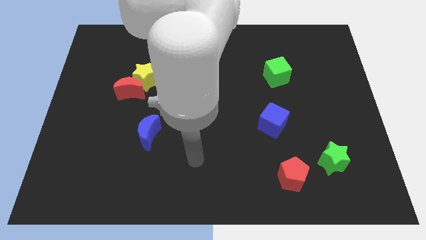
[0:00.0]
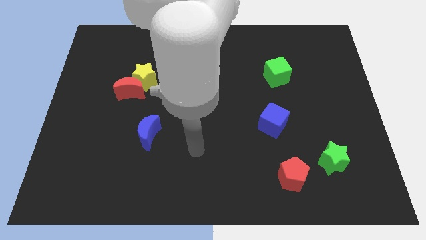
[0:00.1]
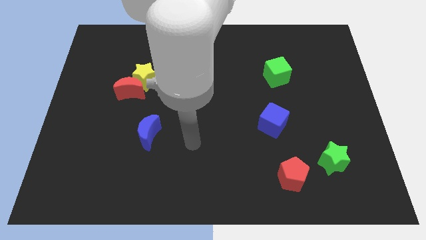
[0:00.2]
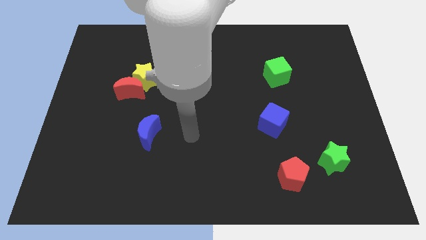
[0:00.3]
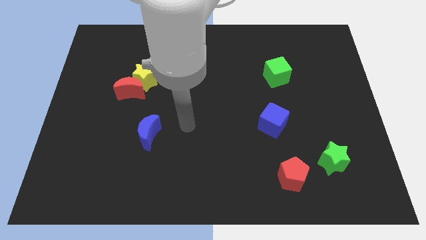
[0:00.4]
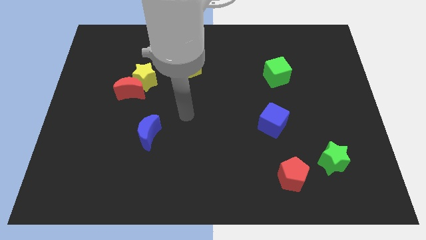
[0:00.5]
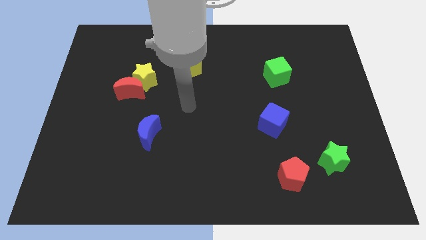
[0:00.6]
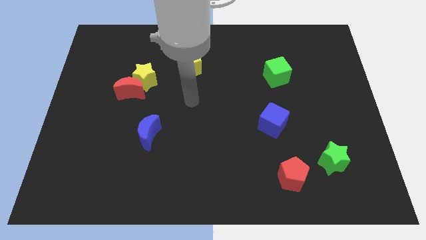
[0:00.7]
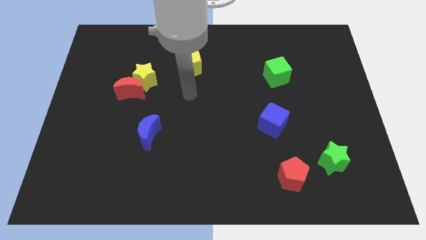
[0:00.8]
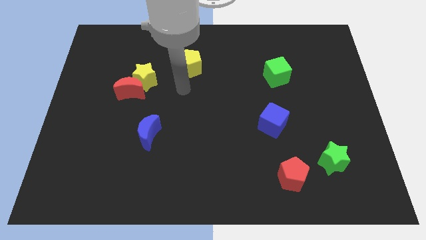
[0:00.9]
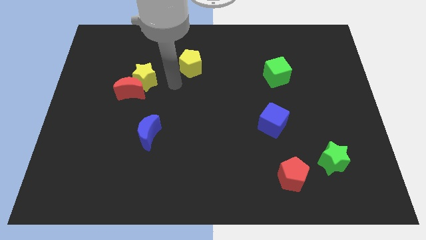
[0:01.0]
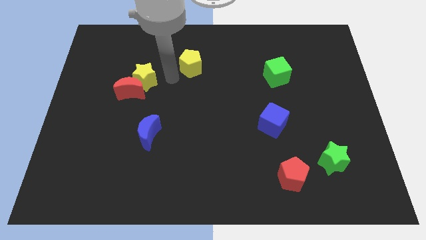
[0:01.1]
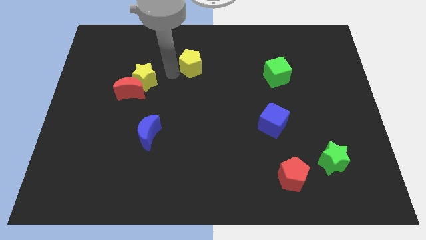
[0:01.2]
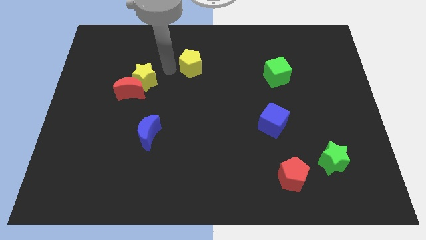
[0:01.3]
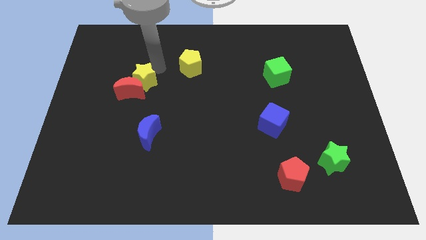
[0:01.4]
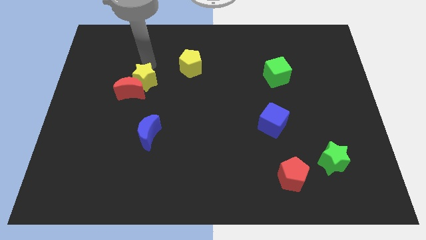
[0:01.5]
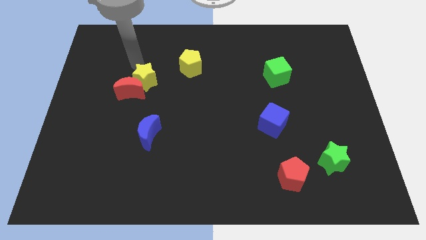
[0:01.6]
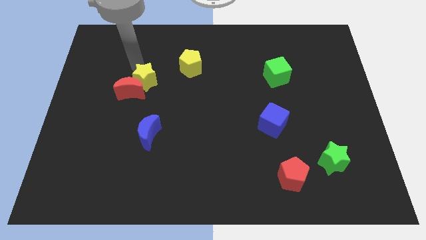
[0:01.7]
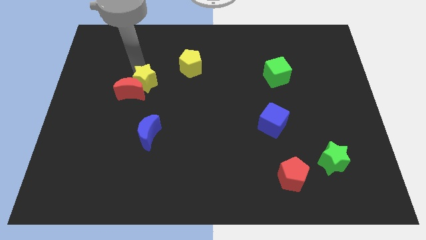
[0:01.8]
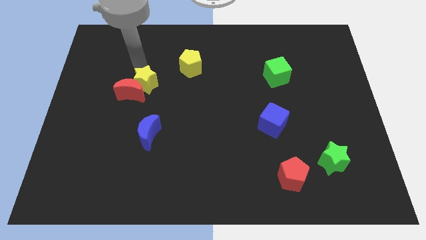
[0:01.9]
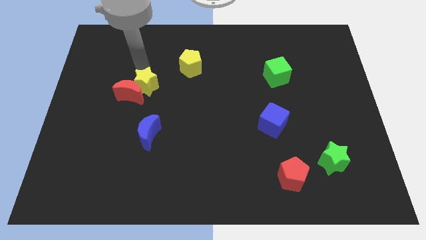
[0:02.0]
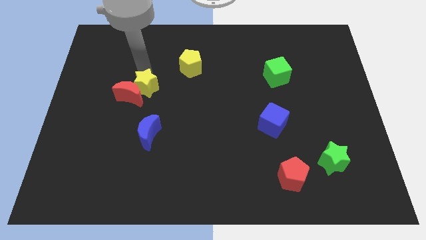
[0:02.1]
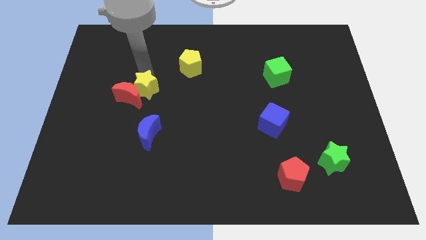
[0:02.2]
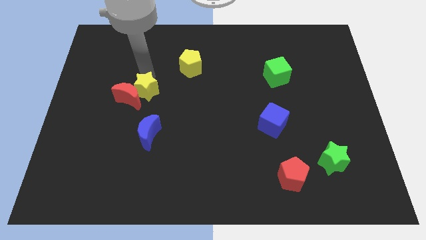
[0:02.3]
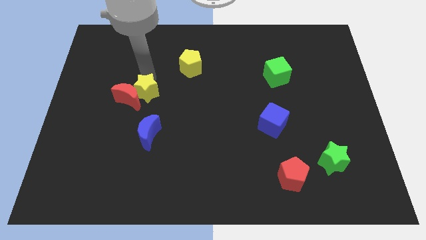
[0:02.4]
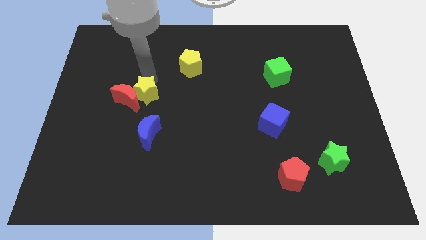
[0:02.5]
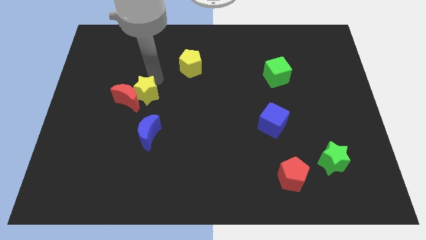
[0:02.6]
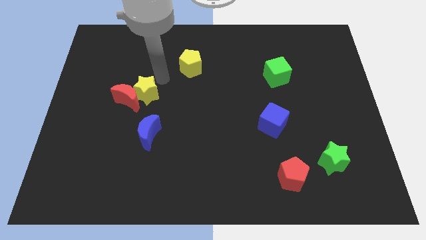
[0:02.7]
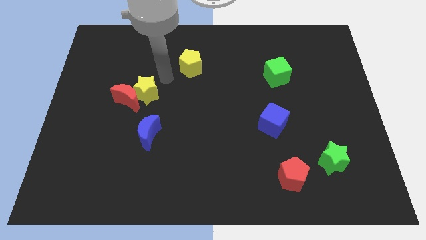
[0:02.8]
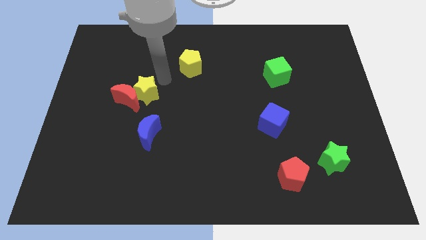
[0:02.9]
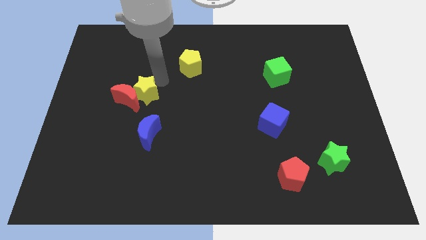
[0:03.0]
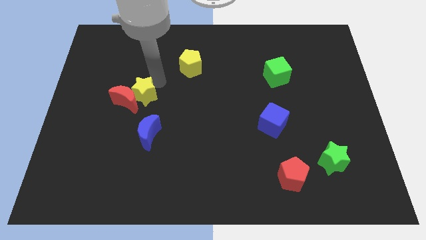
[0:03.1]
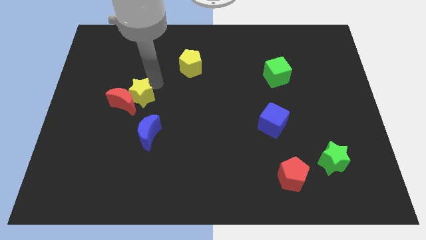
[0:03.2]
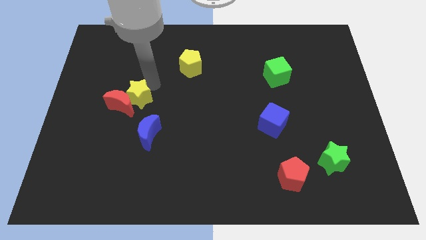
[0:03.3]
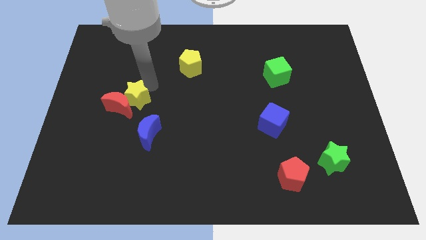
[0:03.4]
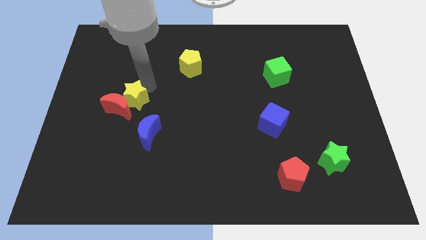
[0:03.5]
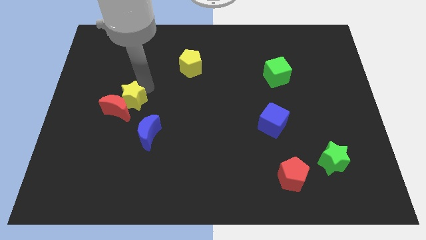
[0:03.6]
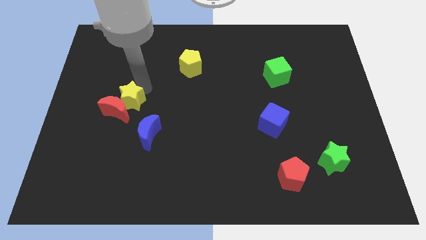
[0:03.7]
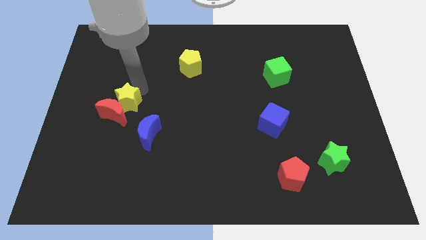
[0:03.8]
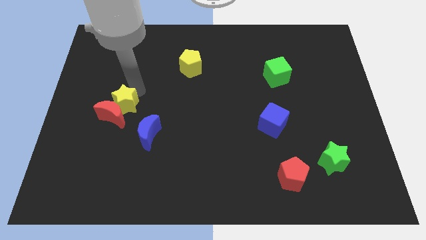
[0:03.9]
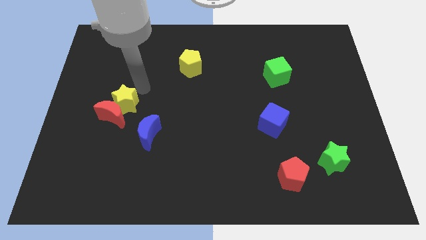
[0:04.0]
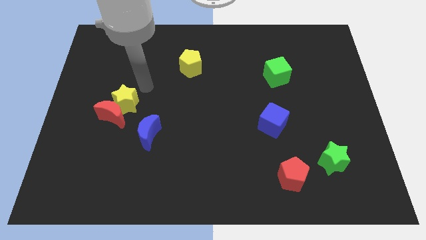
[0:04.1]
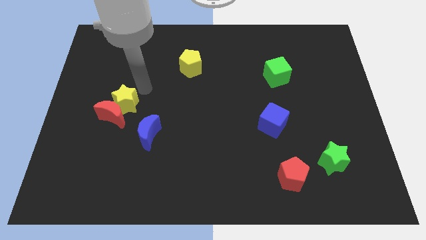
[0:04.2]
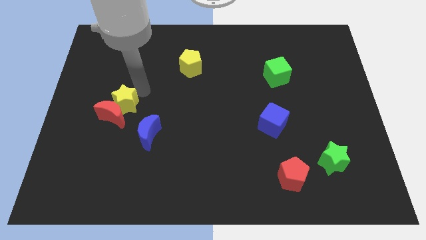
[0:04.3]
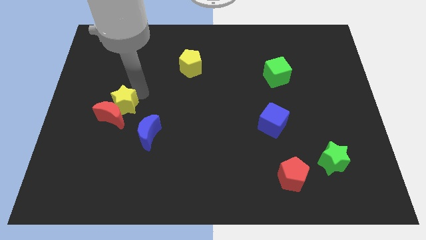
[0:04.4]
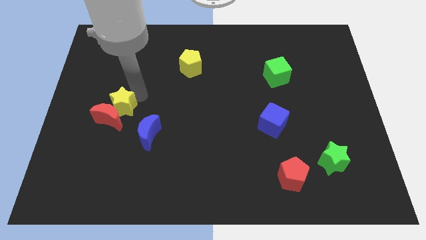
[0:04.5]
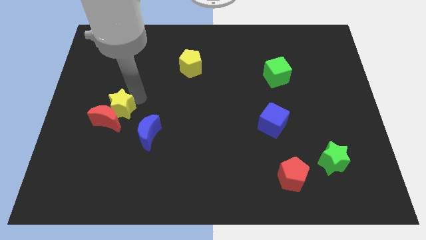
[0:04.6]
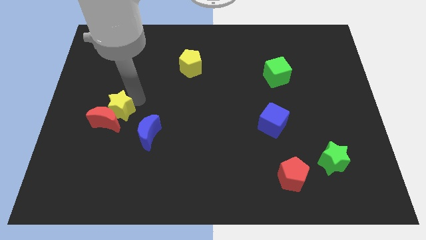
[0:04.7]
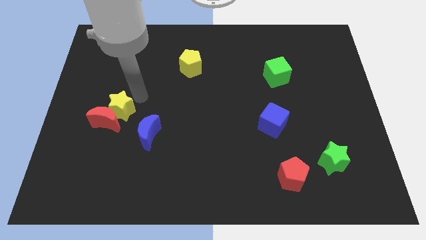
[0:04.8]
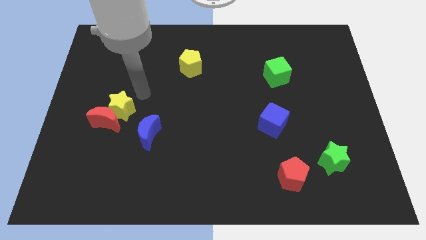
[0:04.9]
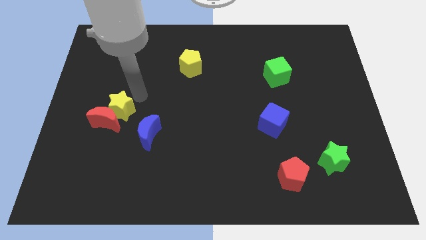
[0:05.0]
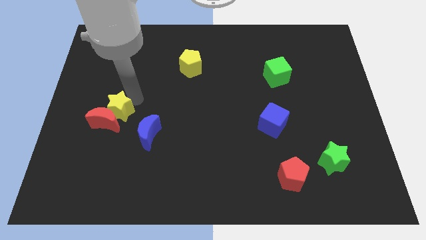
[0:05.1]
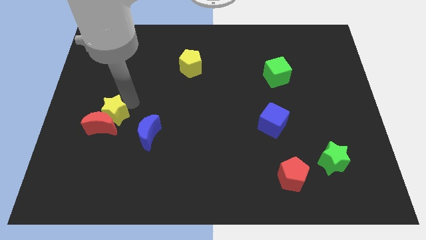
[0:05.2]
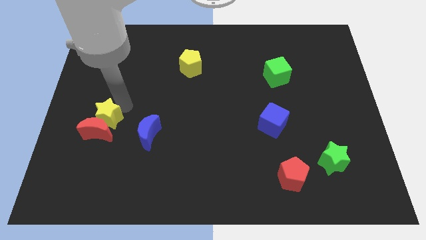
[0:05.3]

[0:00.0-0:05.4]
put the yellow star to the left side of the blue moon

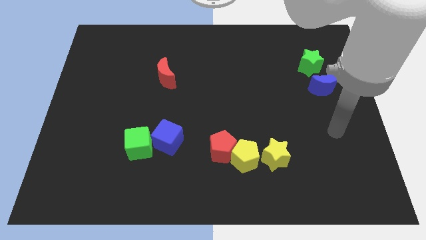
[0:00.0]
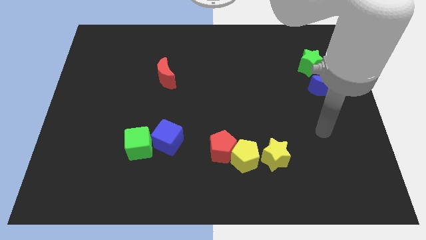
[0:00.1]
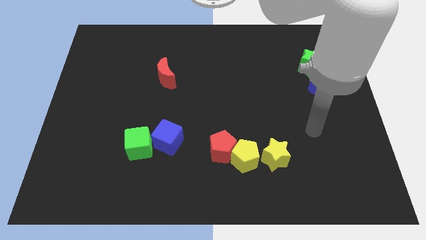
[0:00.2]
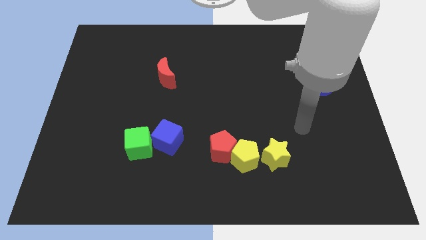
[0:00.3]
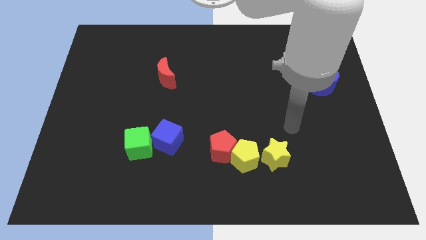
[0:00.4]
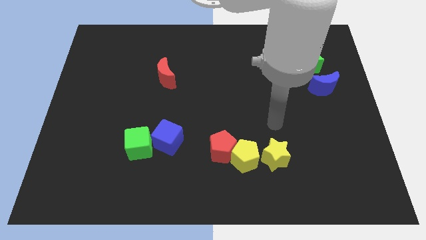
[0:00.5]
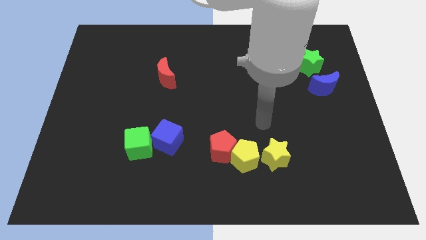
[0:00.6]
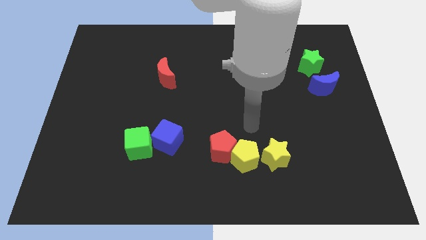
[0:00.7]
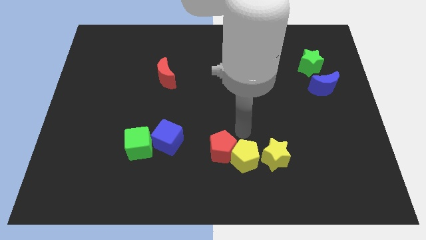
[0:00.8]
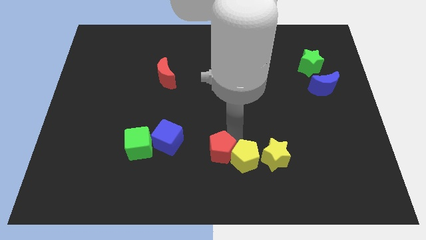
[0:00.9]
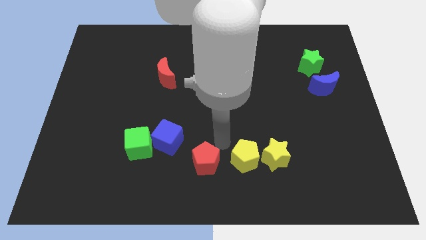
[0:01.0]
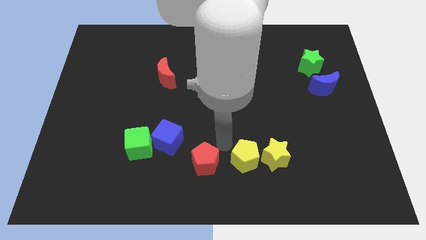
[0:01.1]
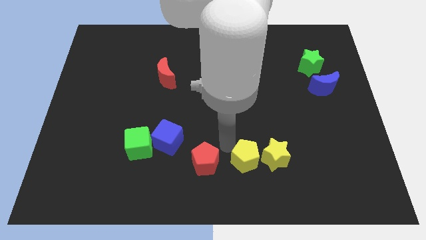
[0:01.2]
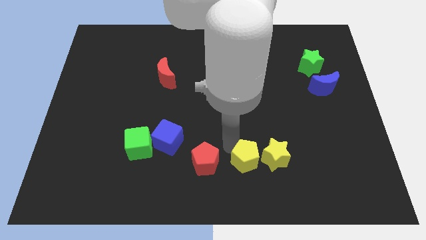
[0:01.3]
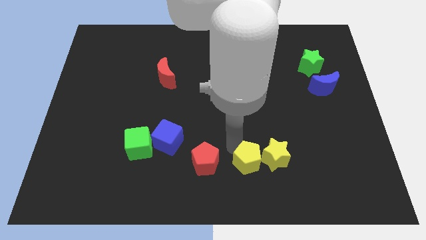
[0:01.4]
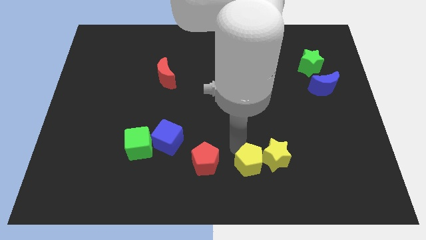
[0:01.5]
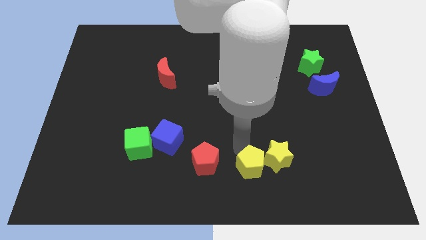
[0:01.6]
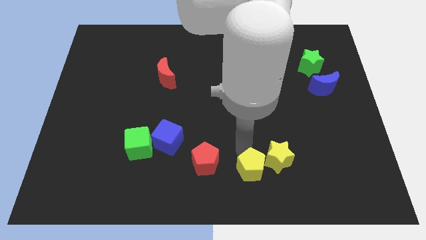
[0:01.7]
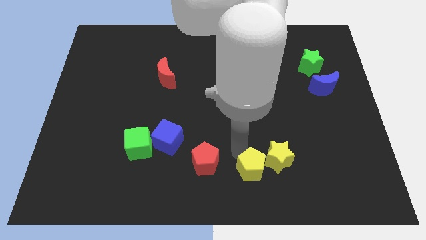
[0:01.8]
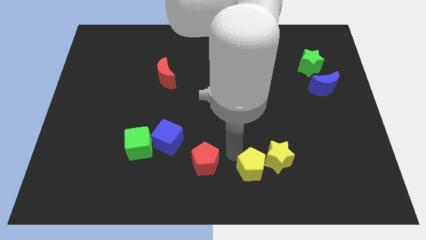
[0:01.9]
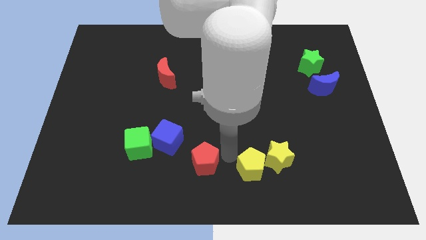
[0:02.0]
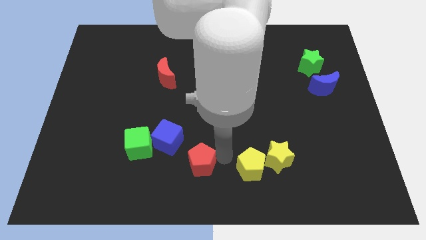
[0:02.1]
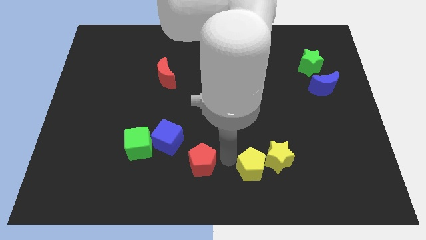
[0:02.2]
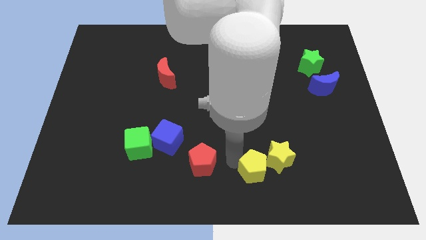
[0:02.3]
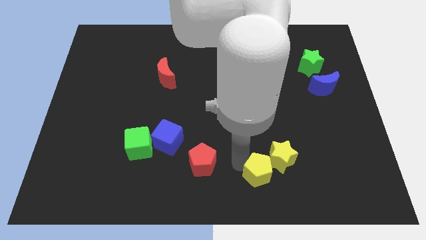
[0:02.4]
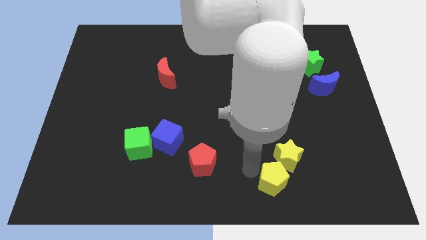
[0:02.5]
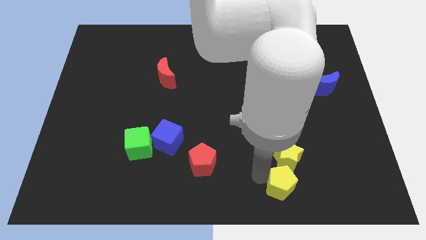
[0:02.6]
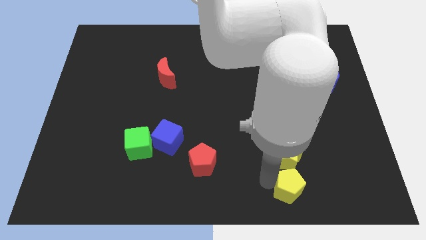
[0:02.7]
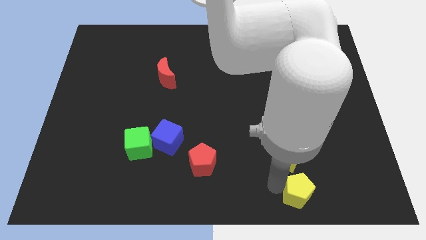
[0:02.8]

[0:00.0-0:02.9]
push the yellow pentagon diagonally down and to the right of the yellow star
